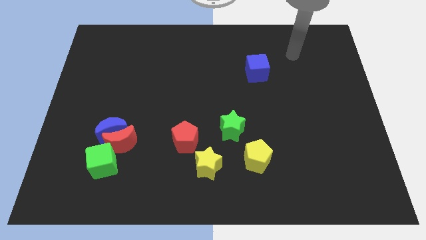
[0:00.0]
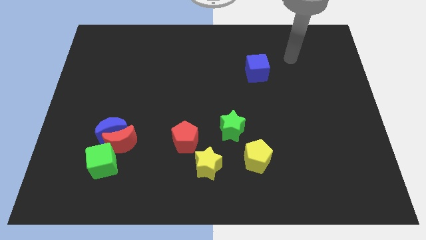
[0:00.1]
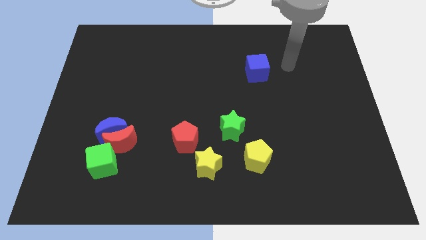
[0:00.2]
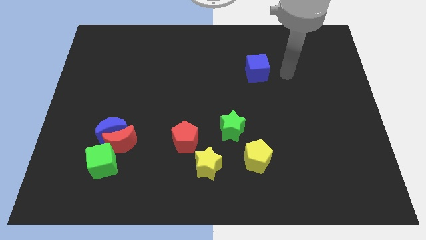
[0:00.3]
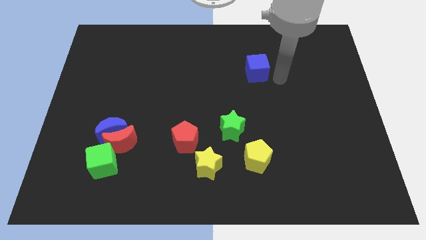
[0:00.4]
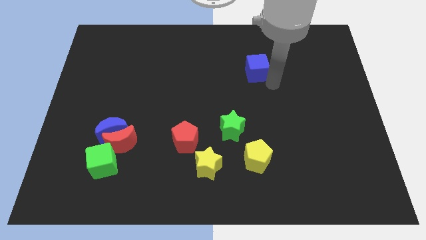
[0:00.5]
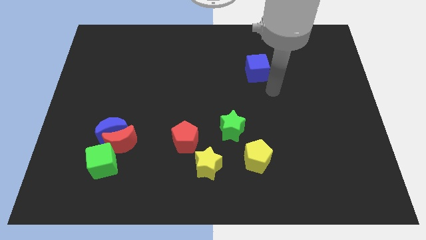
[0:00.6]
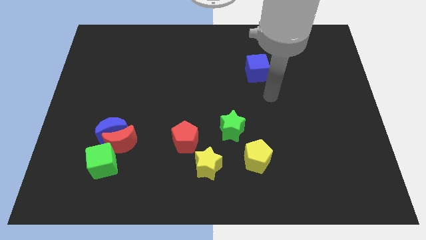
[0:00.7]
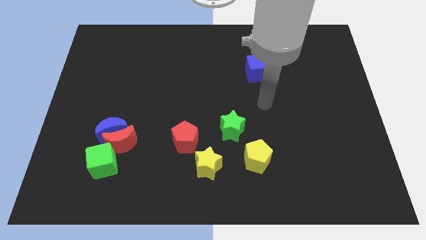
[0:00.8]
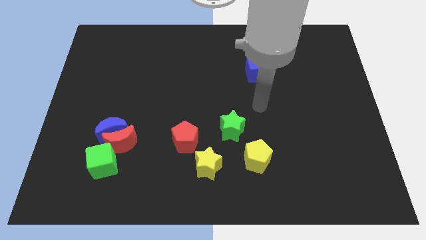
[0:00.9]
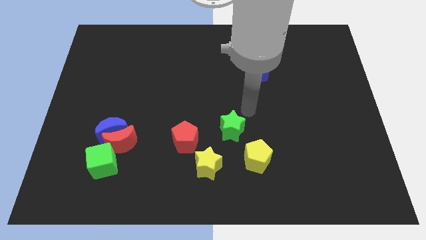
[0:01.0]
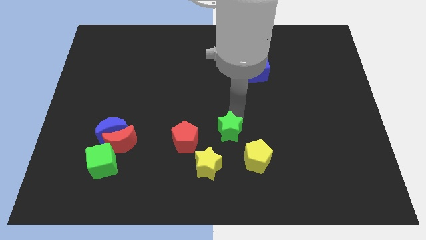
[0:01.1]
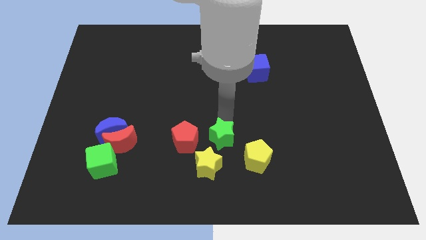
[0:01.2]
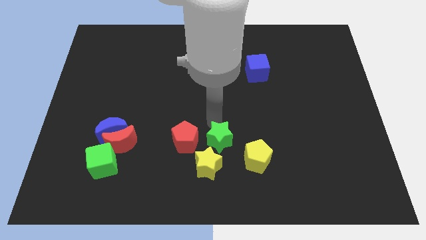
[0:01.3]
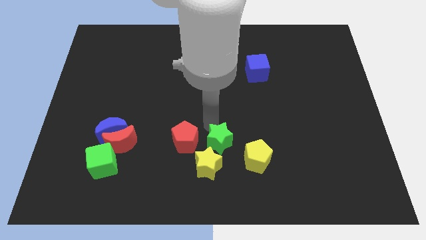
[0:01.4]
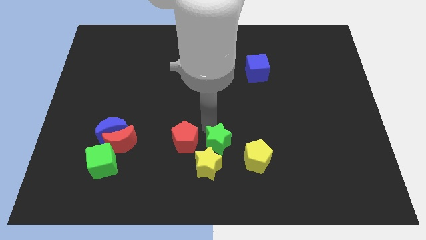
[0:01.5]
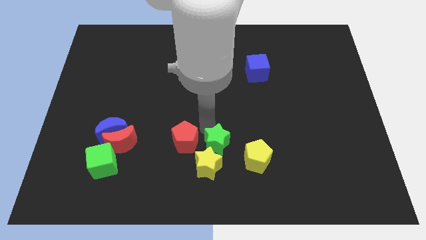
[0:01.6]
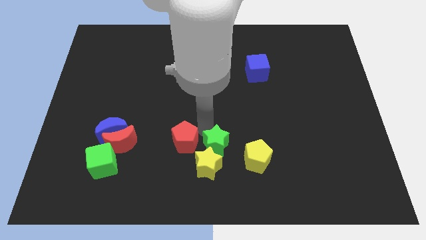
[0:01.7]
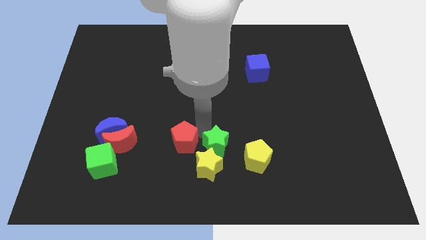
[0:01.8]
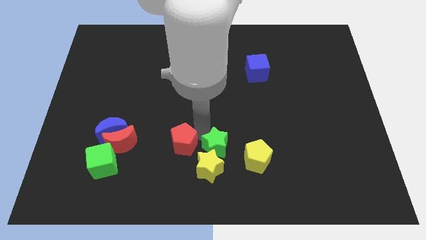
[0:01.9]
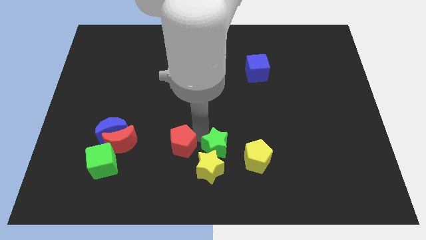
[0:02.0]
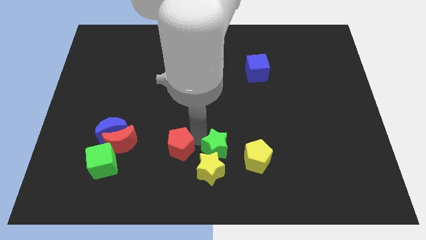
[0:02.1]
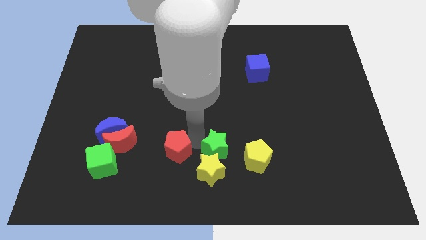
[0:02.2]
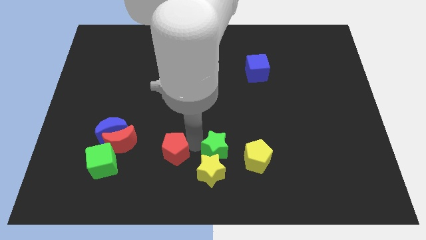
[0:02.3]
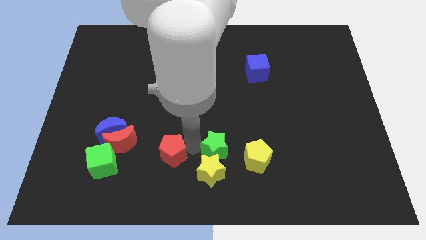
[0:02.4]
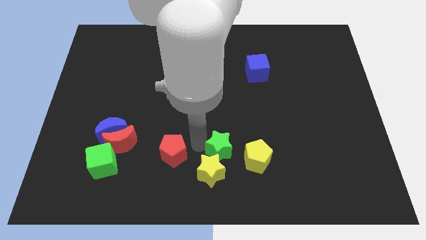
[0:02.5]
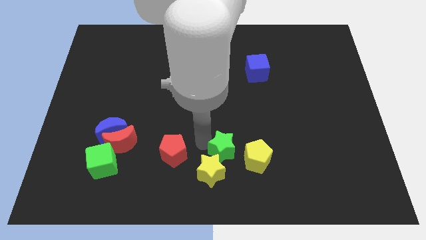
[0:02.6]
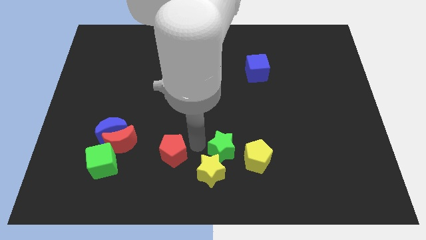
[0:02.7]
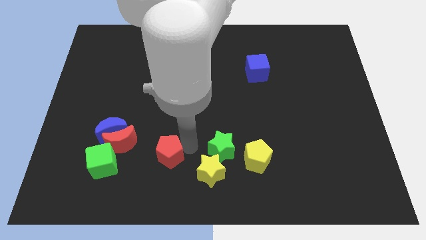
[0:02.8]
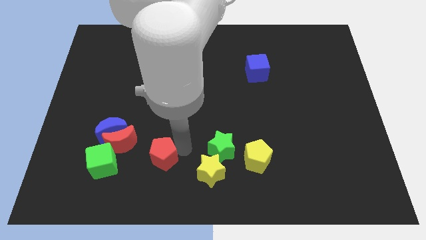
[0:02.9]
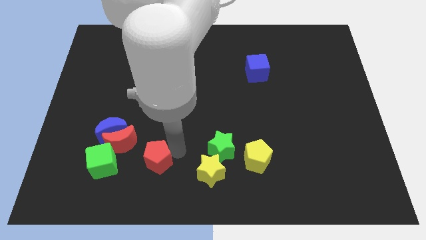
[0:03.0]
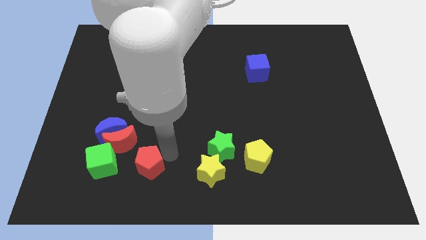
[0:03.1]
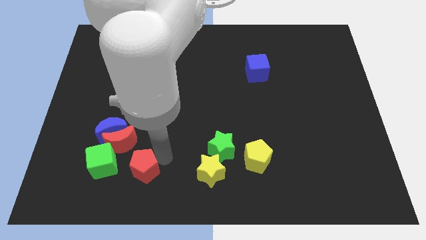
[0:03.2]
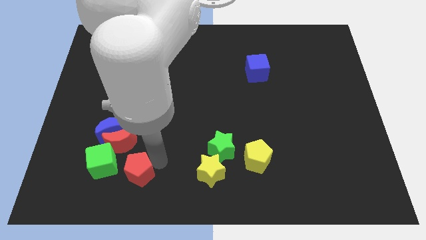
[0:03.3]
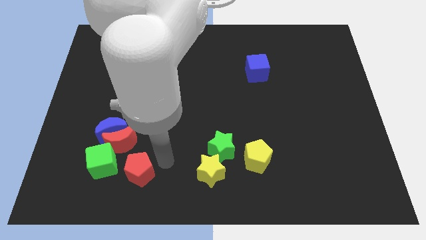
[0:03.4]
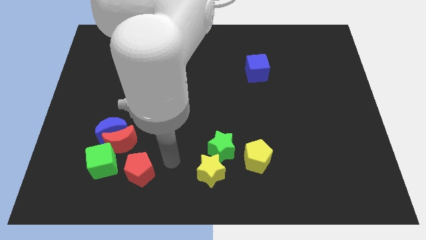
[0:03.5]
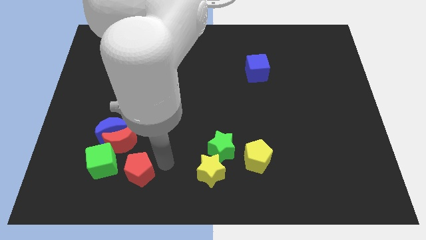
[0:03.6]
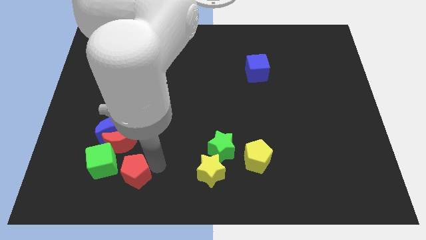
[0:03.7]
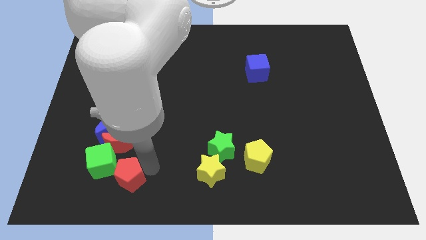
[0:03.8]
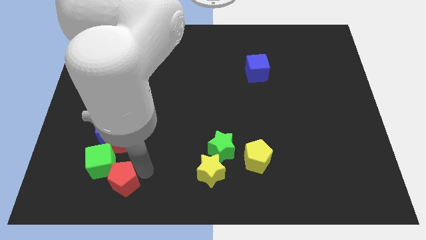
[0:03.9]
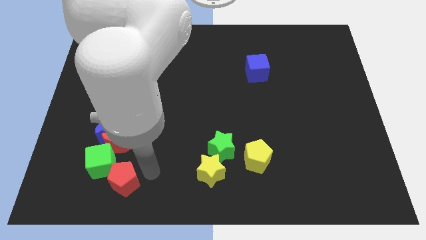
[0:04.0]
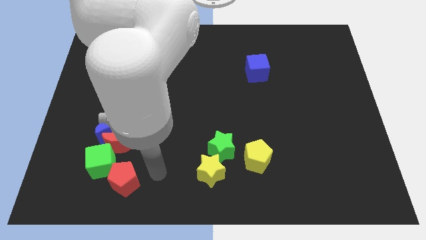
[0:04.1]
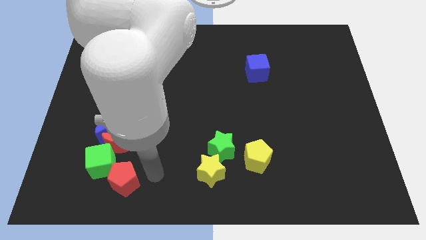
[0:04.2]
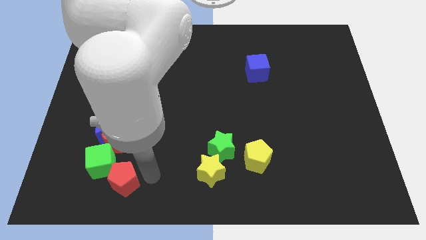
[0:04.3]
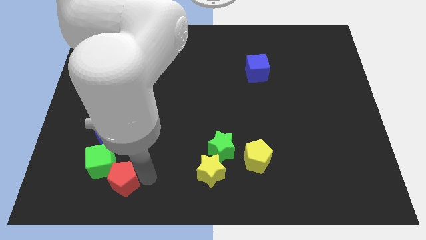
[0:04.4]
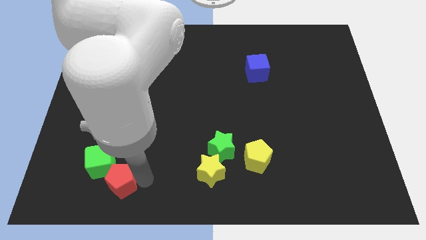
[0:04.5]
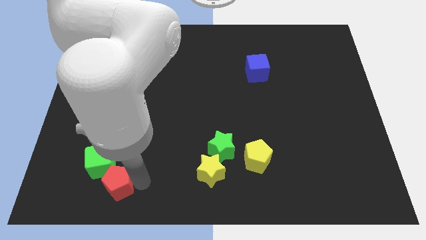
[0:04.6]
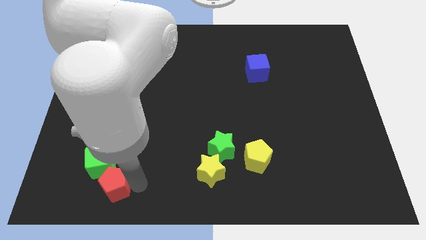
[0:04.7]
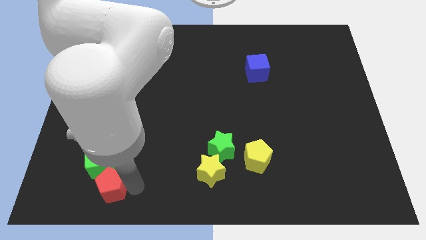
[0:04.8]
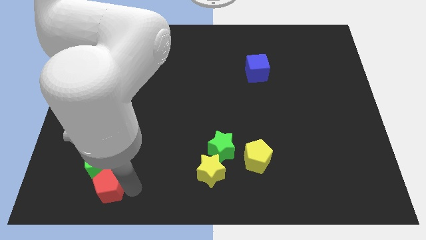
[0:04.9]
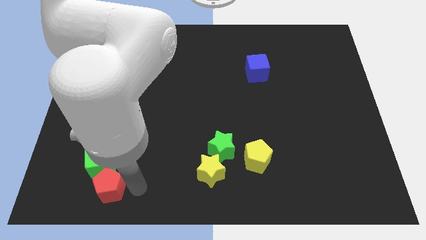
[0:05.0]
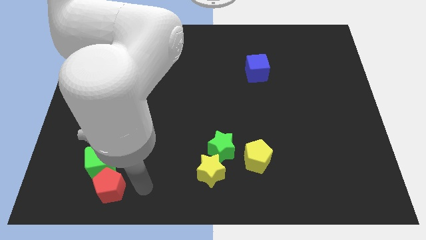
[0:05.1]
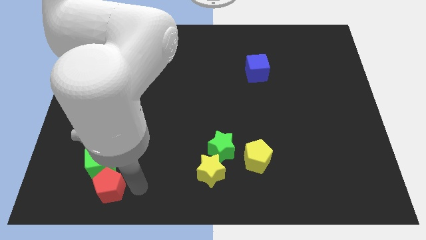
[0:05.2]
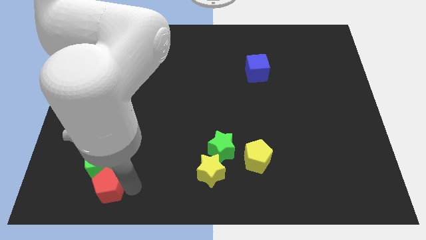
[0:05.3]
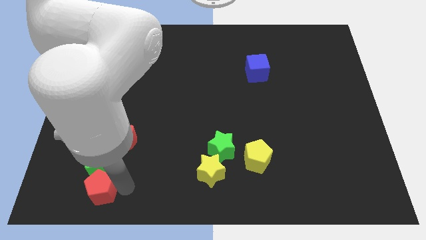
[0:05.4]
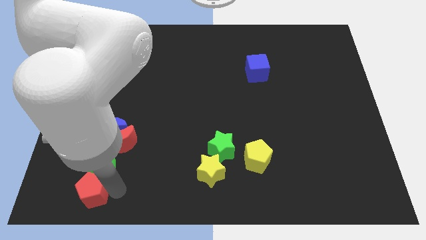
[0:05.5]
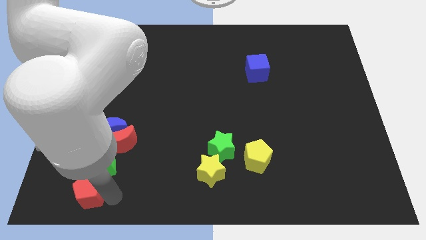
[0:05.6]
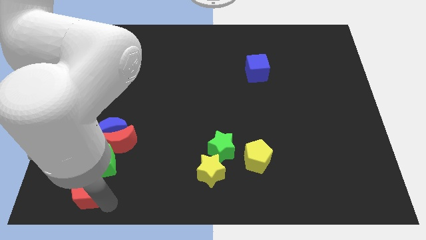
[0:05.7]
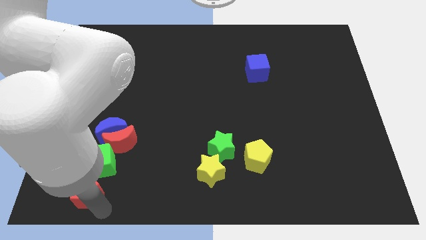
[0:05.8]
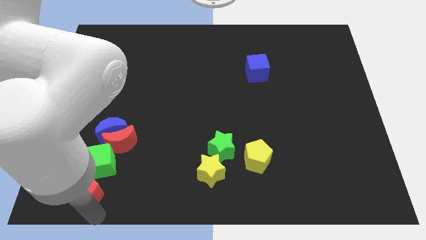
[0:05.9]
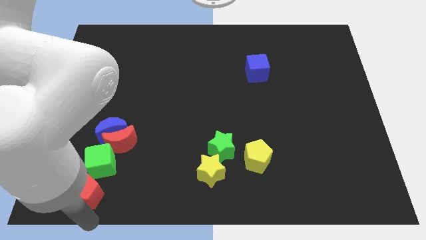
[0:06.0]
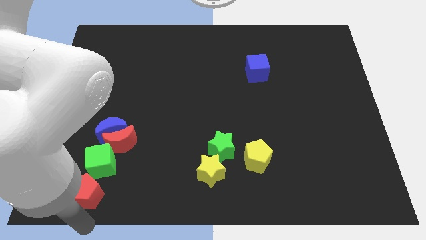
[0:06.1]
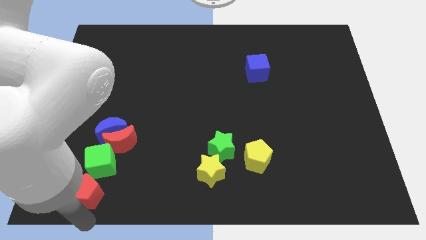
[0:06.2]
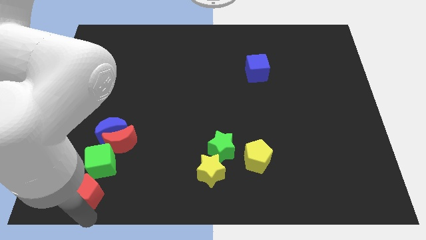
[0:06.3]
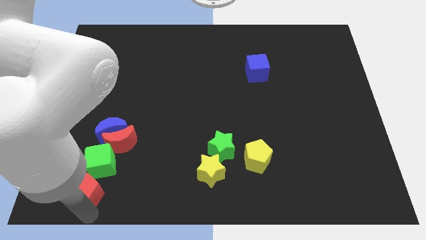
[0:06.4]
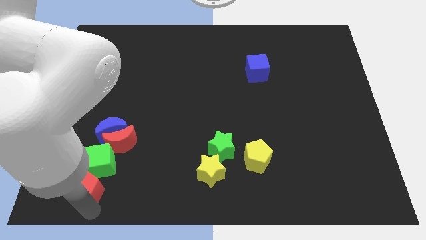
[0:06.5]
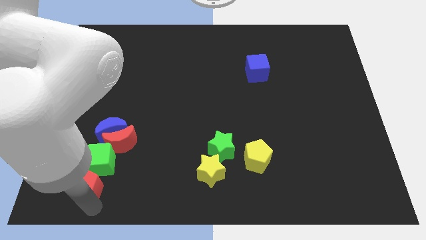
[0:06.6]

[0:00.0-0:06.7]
move the red pentagon to the bottom left side of the red moon

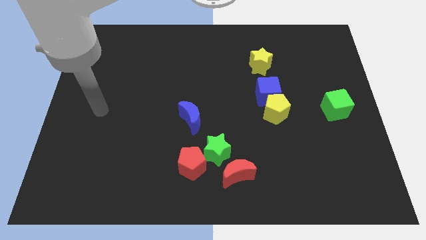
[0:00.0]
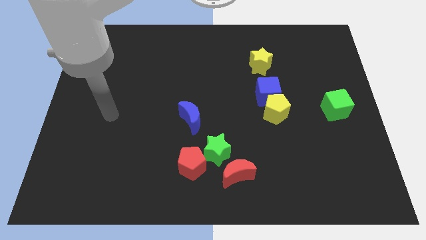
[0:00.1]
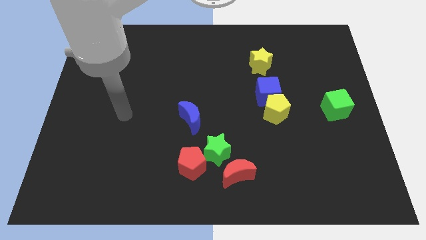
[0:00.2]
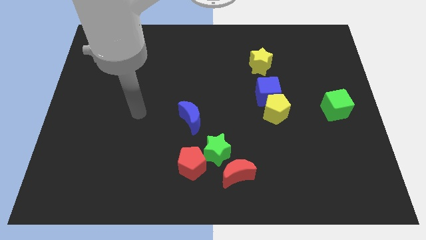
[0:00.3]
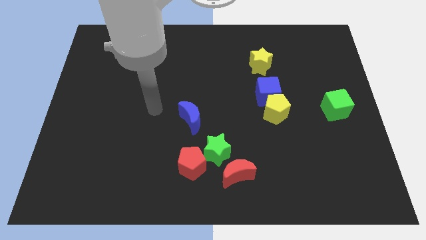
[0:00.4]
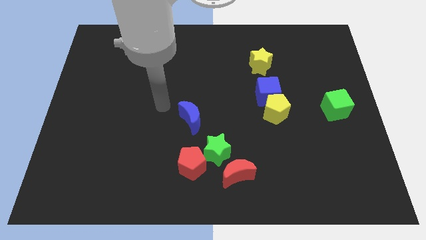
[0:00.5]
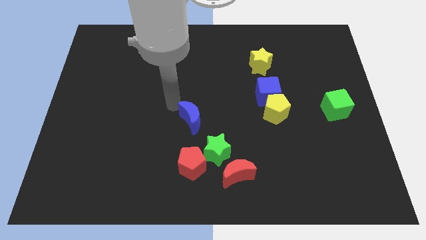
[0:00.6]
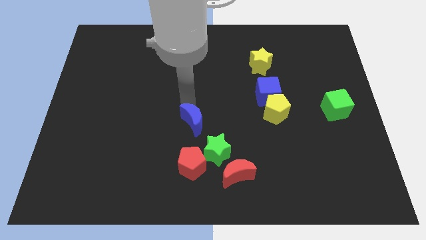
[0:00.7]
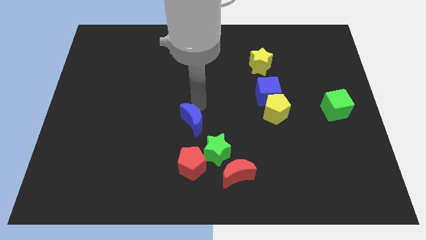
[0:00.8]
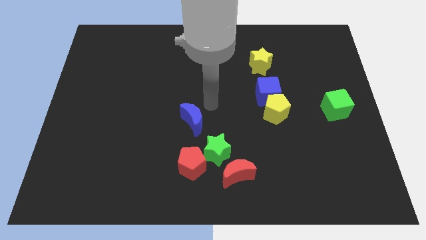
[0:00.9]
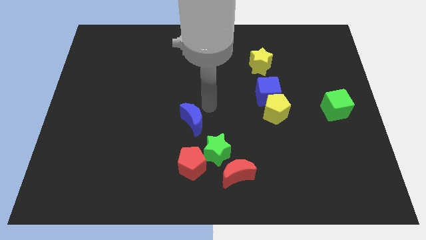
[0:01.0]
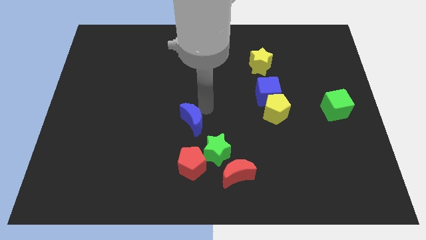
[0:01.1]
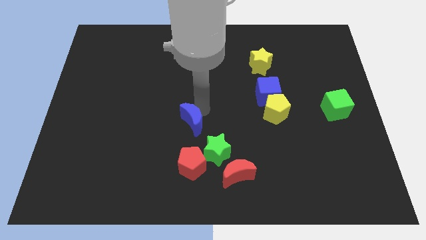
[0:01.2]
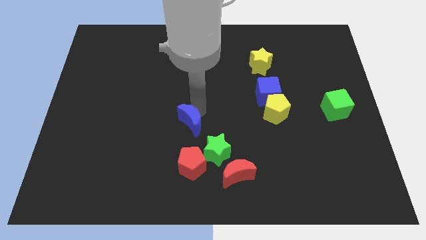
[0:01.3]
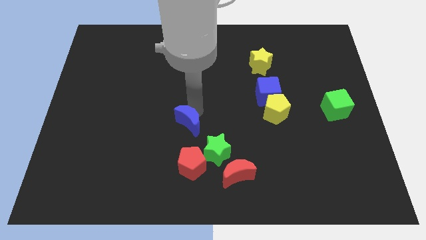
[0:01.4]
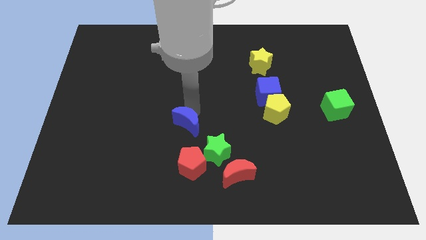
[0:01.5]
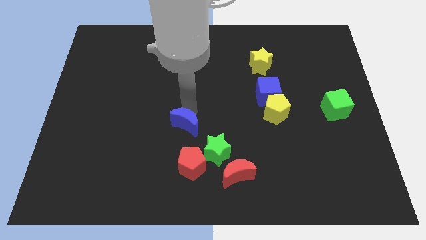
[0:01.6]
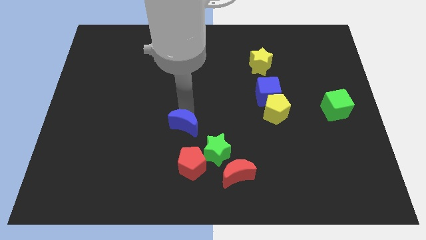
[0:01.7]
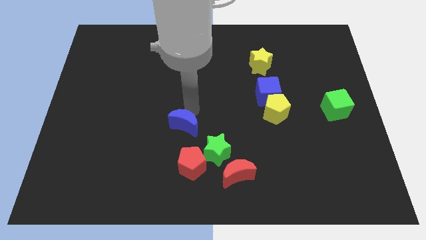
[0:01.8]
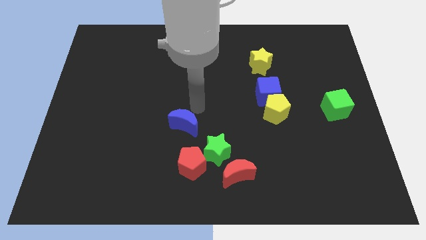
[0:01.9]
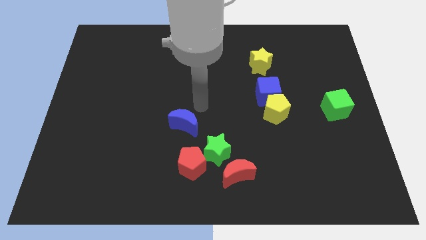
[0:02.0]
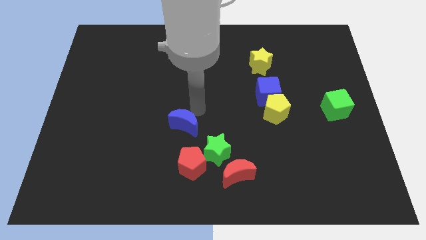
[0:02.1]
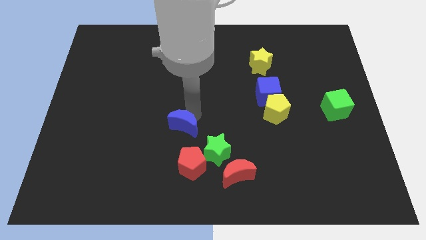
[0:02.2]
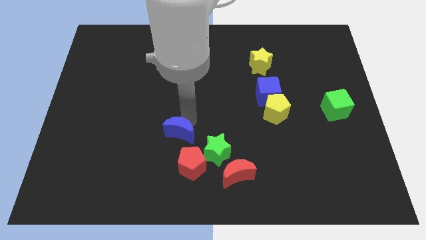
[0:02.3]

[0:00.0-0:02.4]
put the blue moon to the top left of the red pentagon
